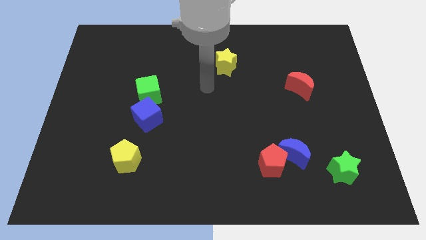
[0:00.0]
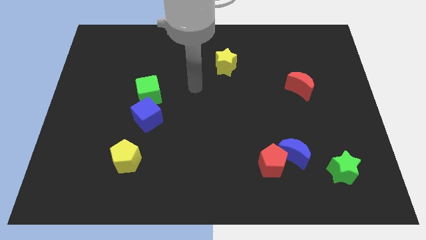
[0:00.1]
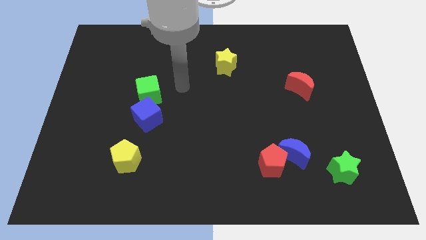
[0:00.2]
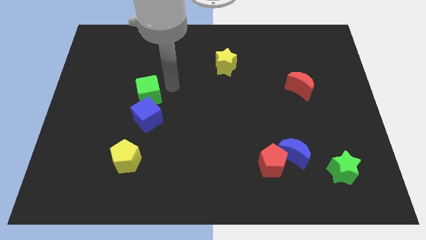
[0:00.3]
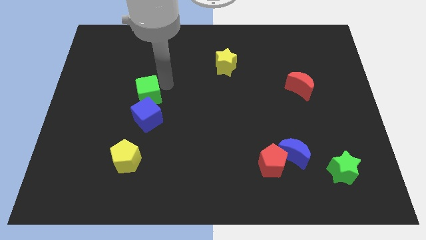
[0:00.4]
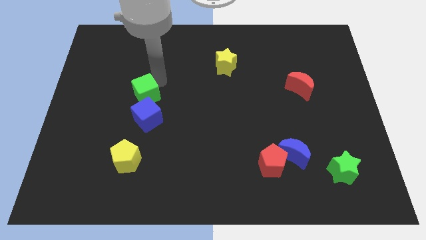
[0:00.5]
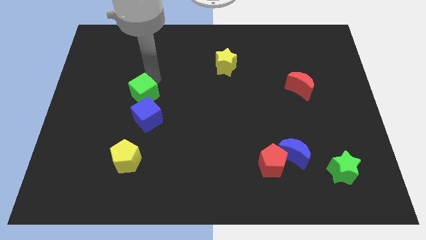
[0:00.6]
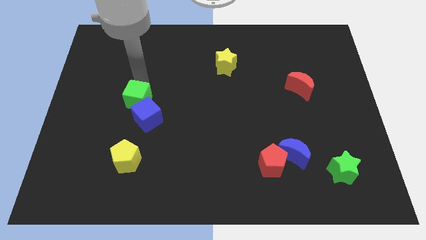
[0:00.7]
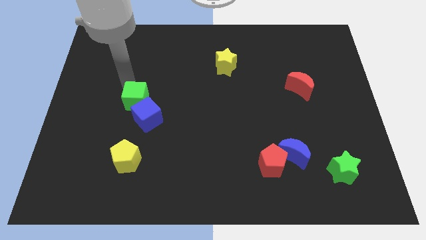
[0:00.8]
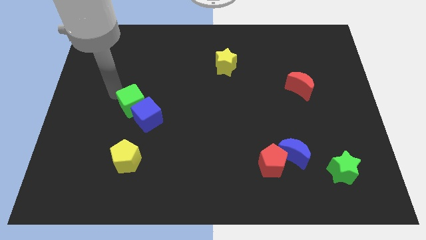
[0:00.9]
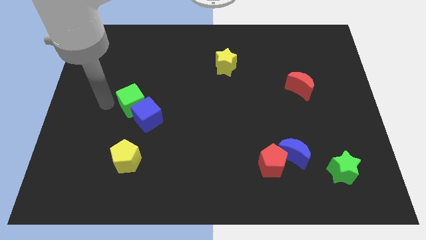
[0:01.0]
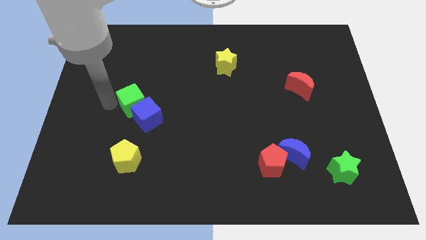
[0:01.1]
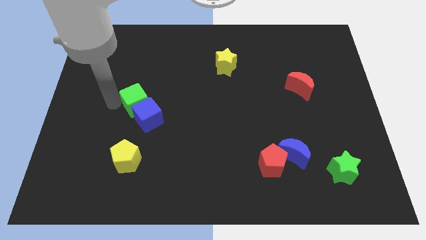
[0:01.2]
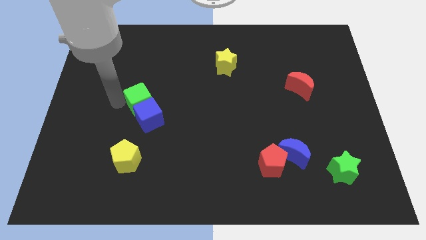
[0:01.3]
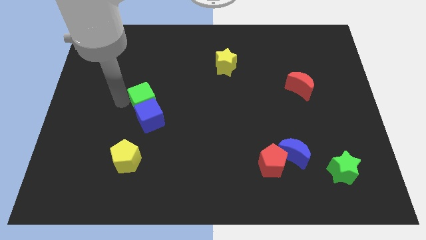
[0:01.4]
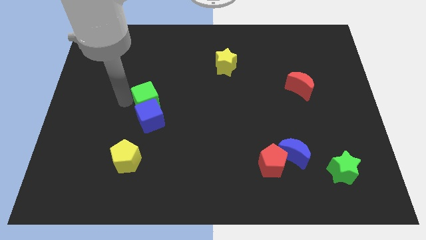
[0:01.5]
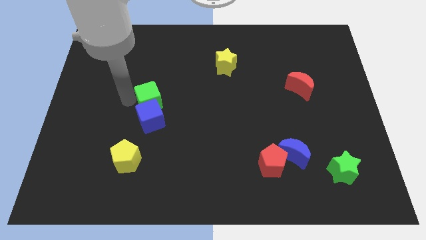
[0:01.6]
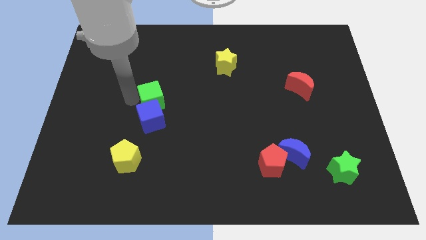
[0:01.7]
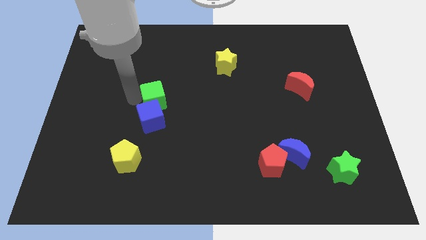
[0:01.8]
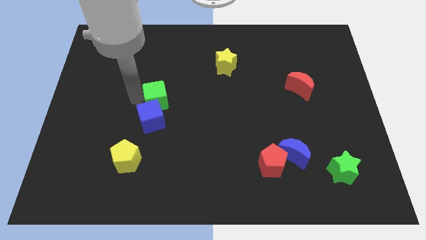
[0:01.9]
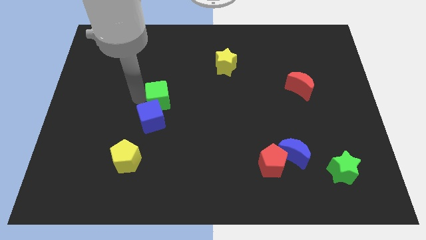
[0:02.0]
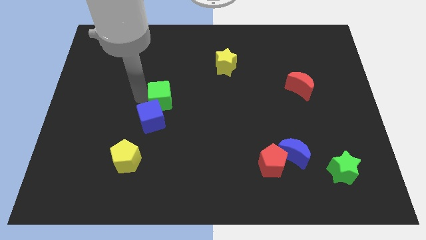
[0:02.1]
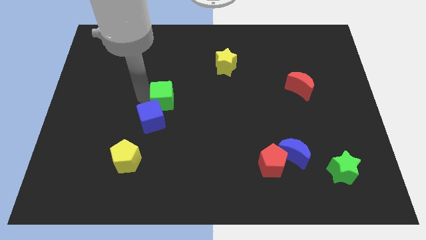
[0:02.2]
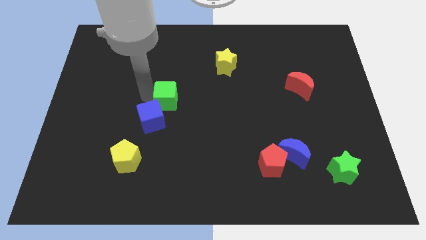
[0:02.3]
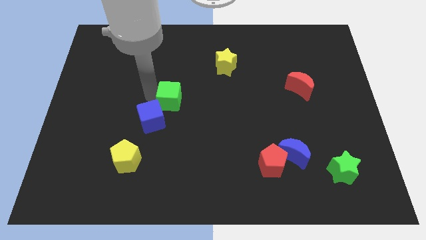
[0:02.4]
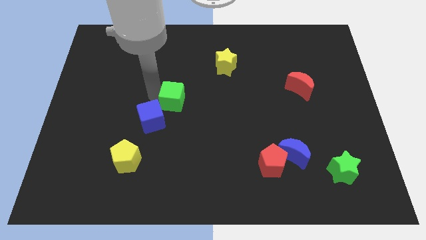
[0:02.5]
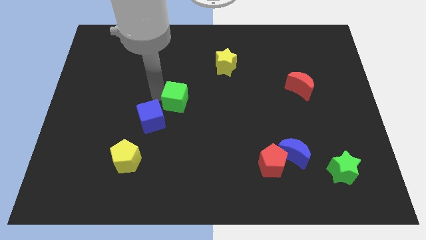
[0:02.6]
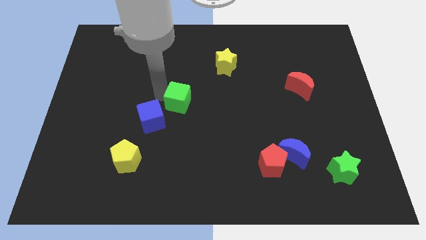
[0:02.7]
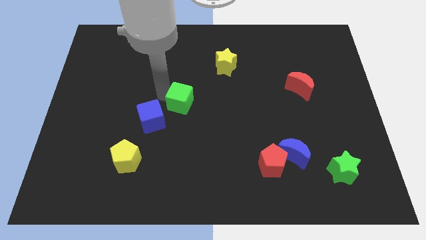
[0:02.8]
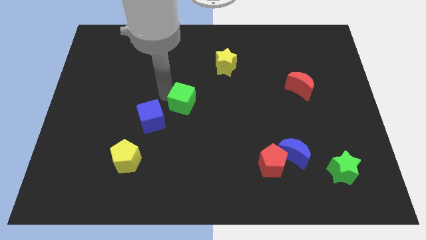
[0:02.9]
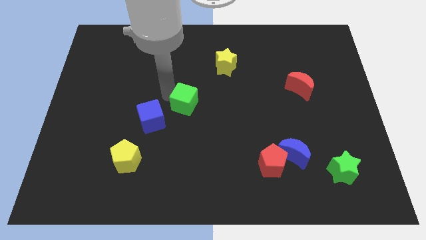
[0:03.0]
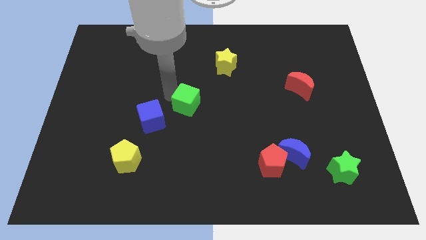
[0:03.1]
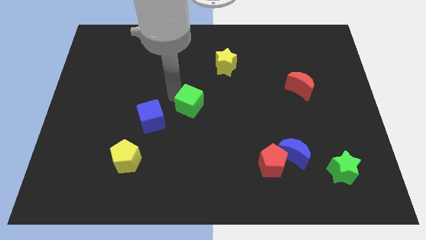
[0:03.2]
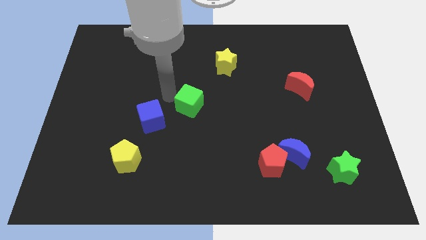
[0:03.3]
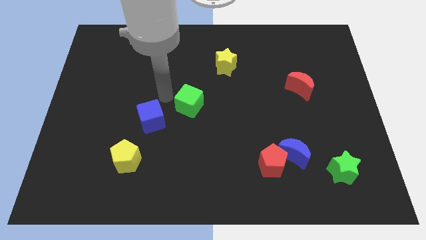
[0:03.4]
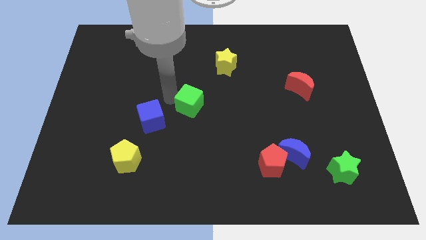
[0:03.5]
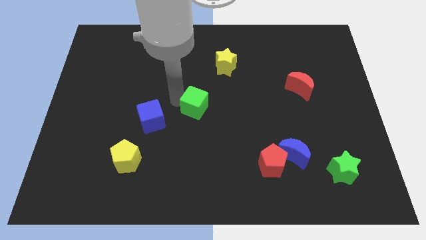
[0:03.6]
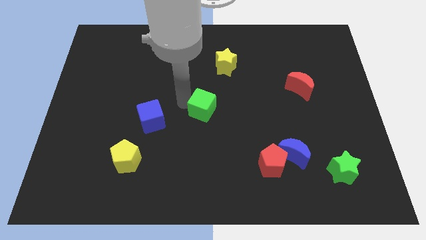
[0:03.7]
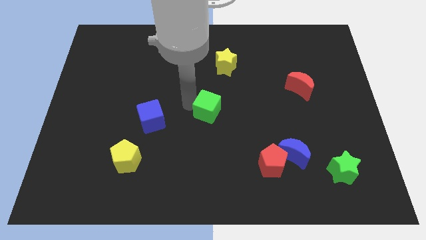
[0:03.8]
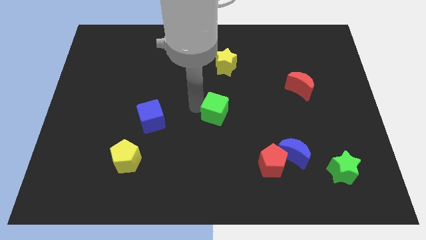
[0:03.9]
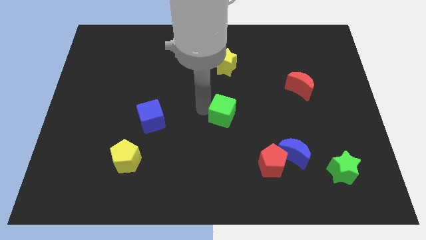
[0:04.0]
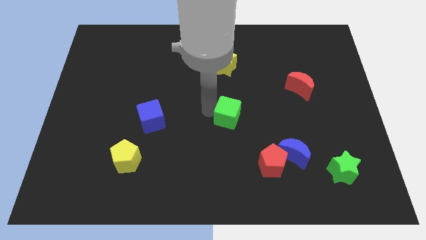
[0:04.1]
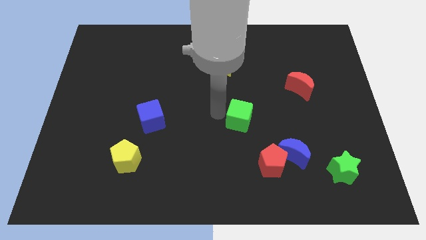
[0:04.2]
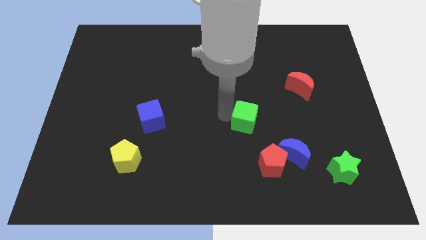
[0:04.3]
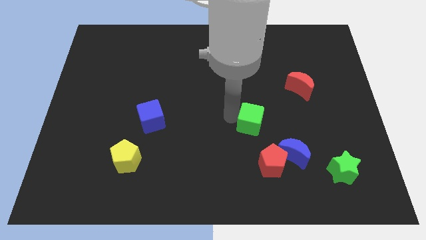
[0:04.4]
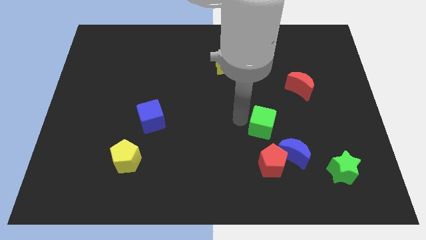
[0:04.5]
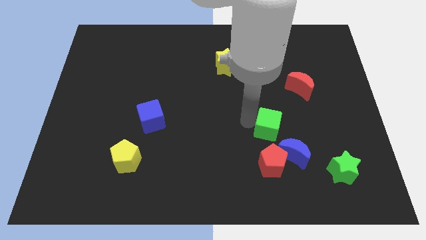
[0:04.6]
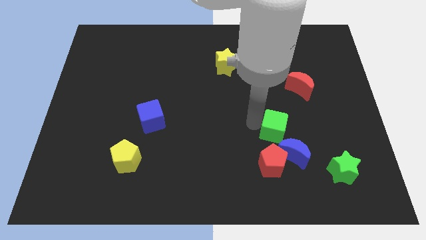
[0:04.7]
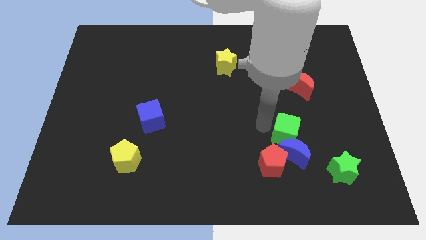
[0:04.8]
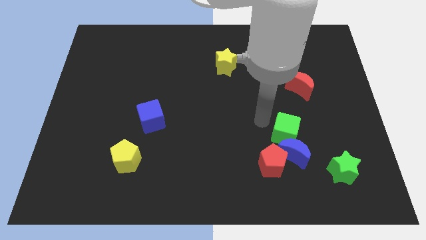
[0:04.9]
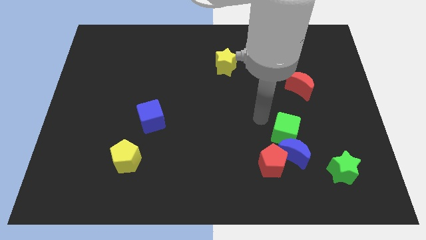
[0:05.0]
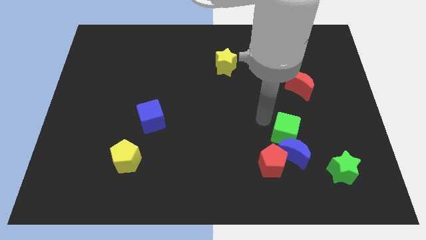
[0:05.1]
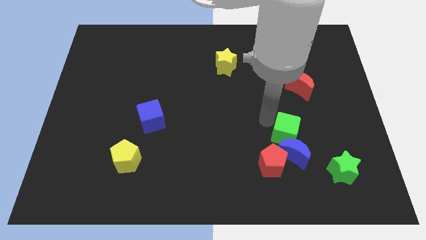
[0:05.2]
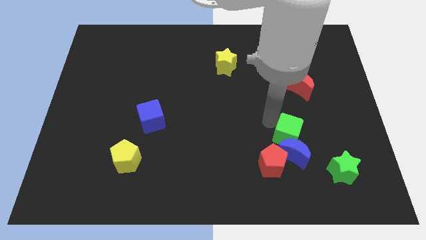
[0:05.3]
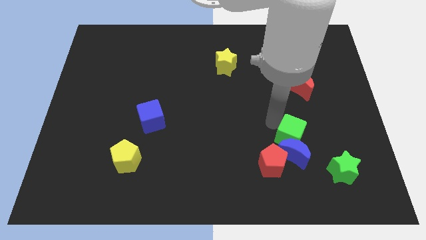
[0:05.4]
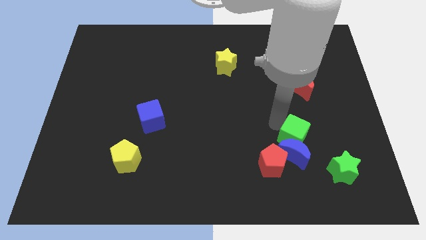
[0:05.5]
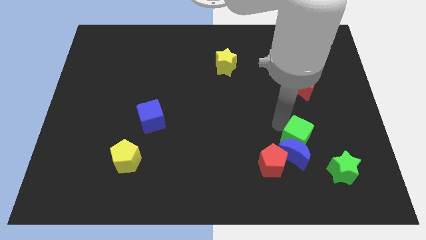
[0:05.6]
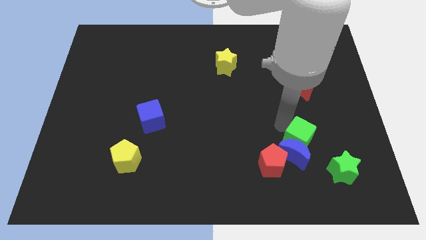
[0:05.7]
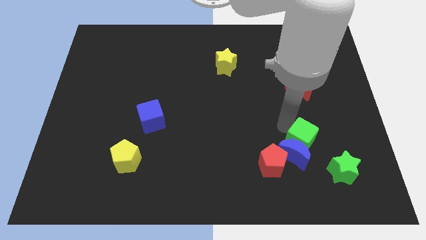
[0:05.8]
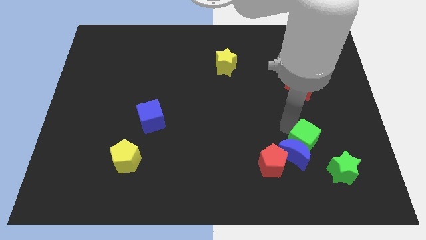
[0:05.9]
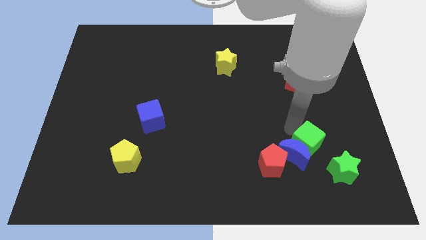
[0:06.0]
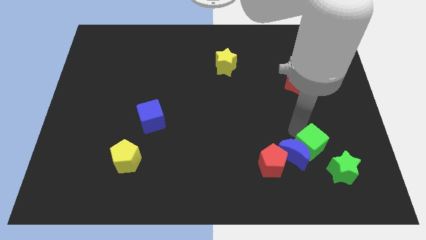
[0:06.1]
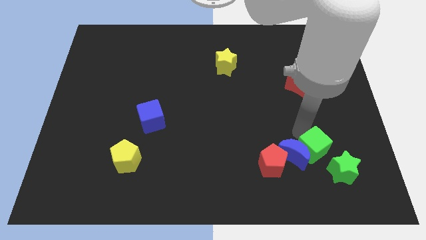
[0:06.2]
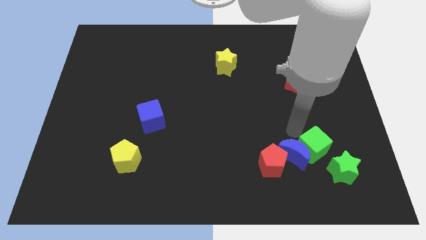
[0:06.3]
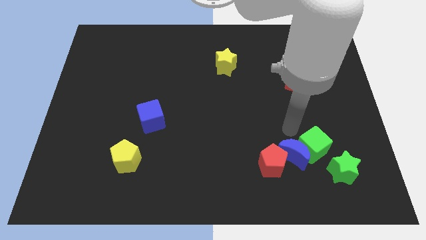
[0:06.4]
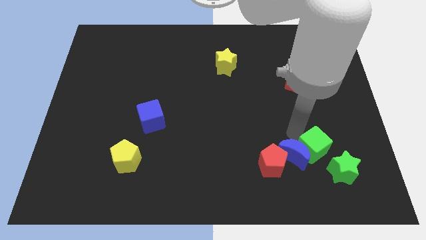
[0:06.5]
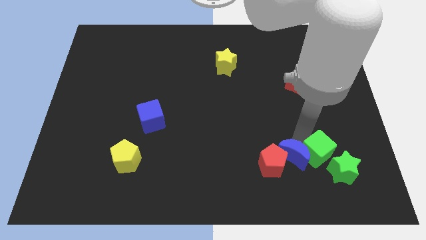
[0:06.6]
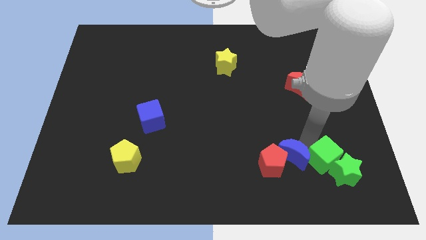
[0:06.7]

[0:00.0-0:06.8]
push the green cube close to the green star
